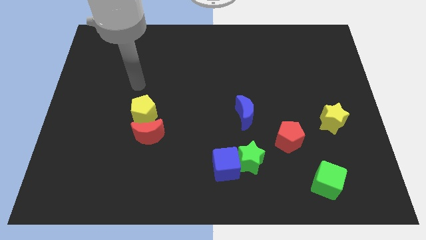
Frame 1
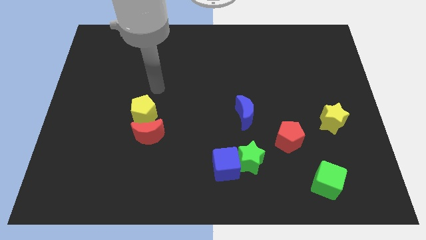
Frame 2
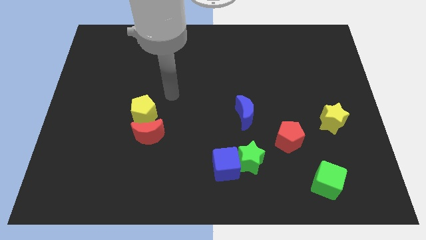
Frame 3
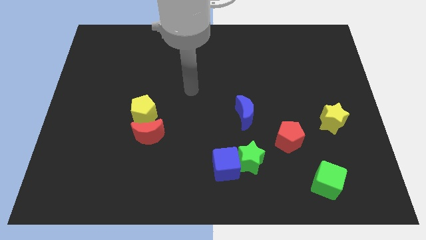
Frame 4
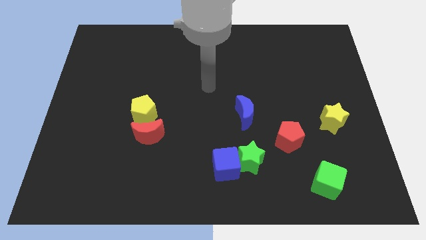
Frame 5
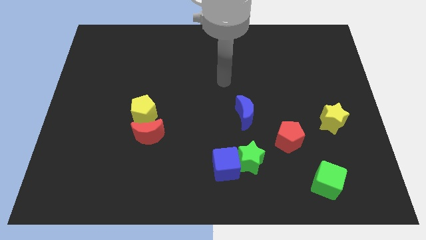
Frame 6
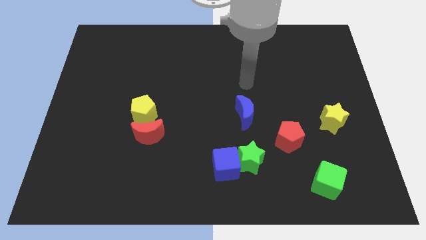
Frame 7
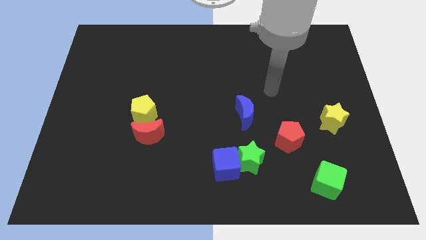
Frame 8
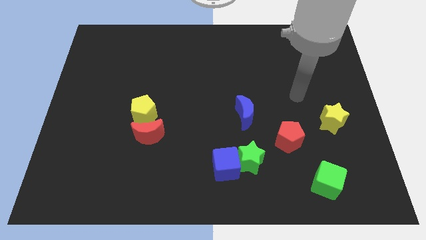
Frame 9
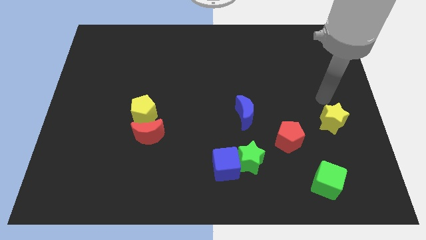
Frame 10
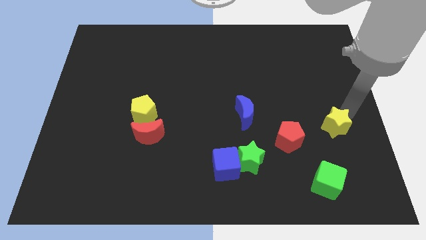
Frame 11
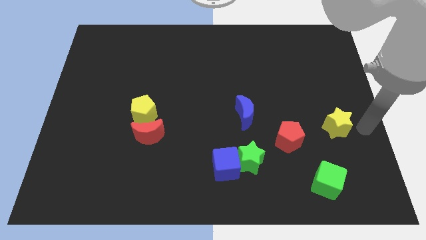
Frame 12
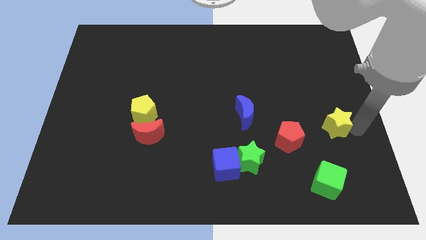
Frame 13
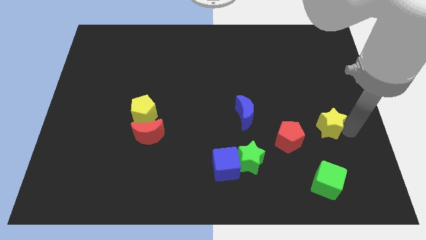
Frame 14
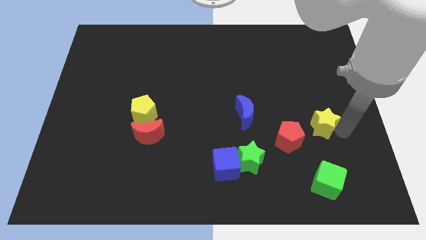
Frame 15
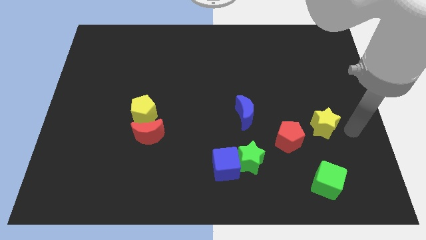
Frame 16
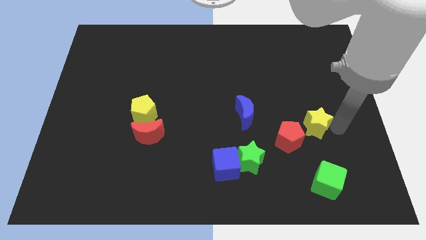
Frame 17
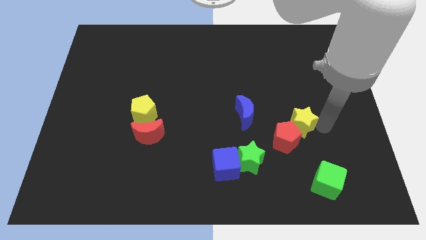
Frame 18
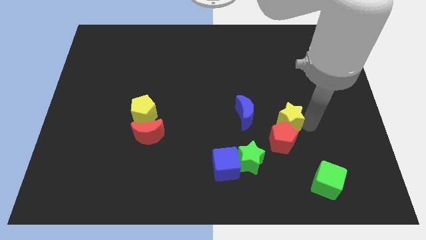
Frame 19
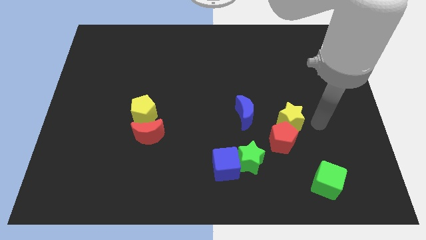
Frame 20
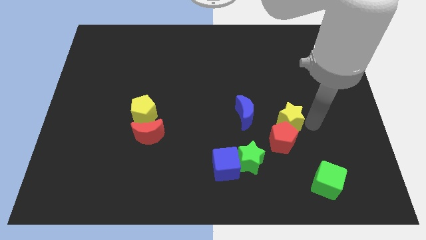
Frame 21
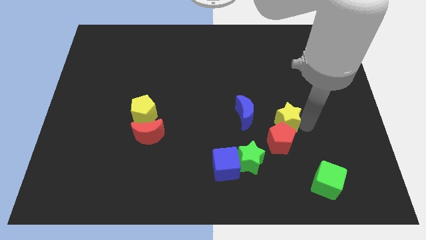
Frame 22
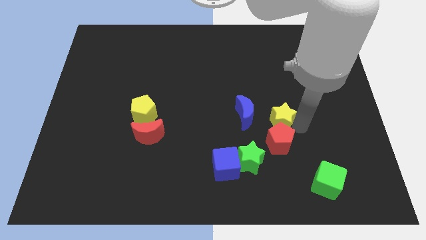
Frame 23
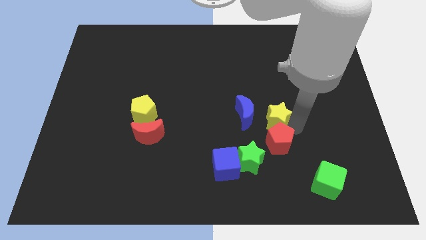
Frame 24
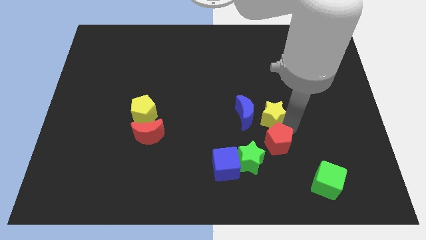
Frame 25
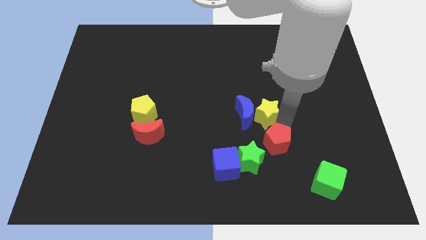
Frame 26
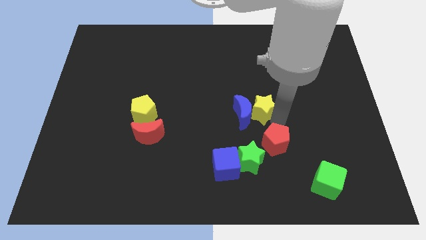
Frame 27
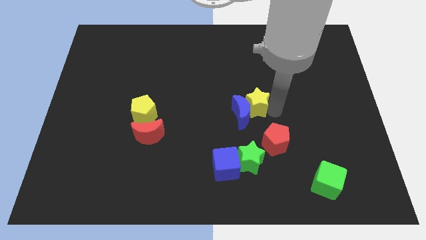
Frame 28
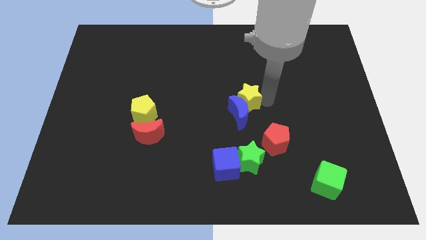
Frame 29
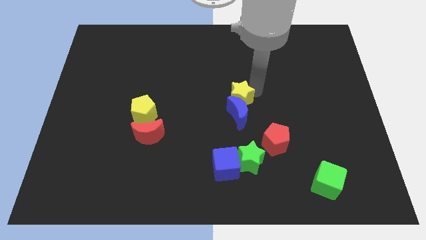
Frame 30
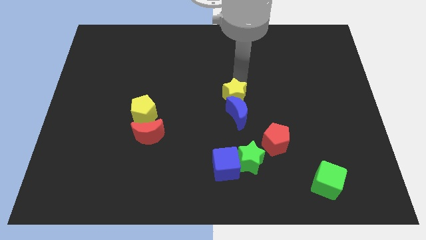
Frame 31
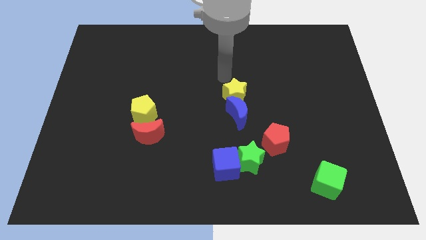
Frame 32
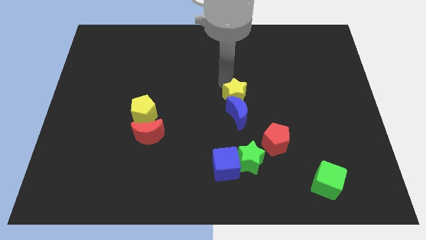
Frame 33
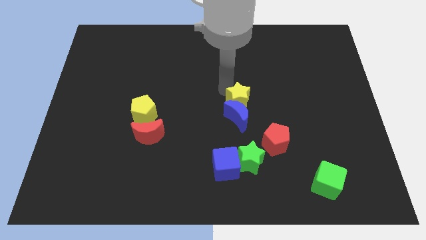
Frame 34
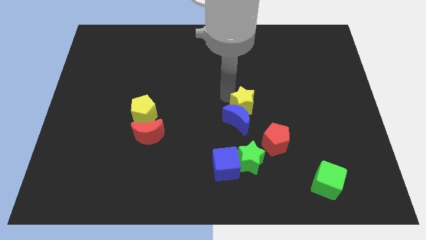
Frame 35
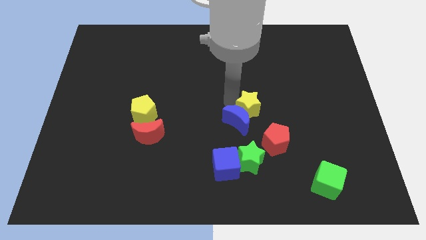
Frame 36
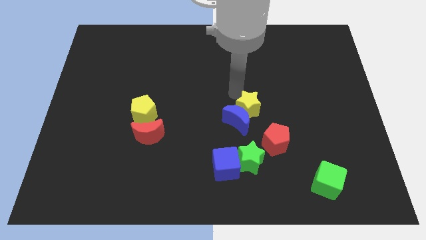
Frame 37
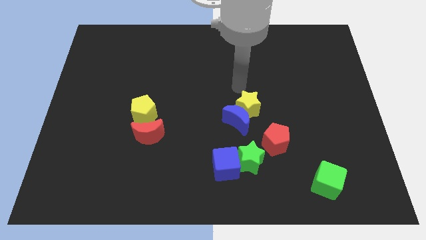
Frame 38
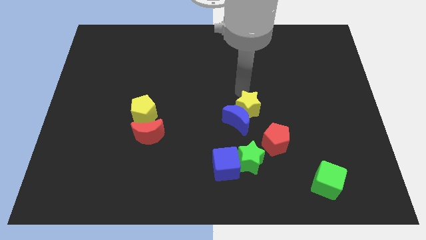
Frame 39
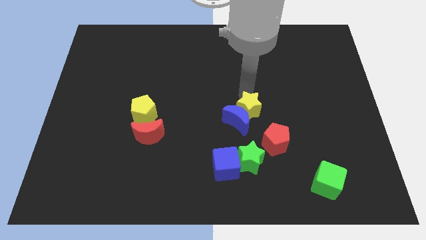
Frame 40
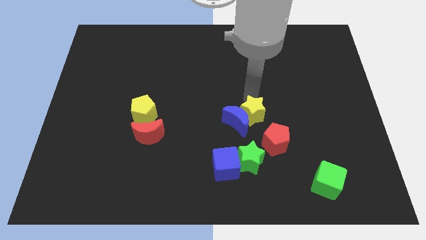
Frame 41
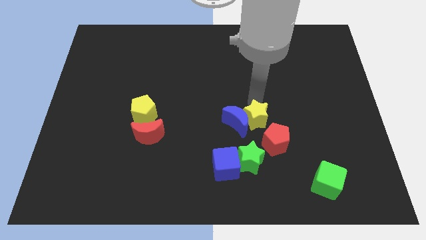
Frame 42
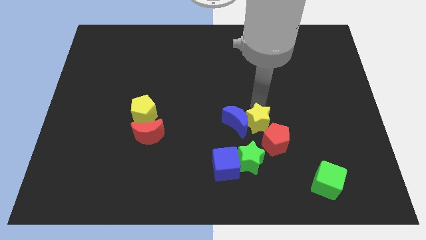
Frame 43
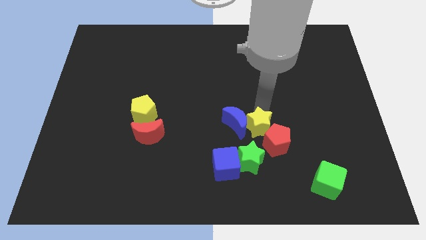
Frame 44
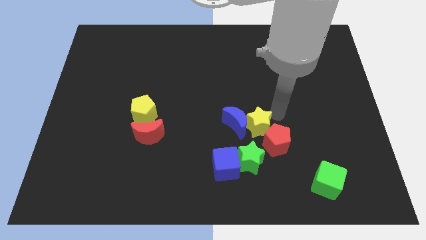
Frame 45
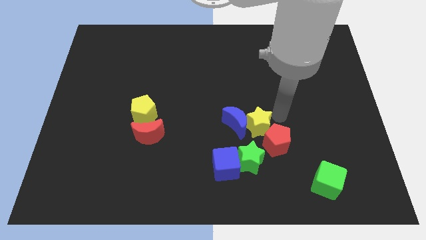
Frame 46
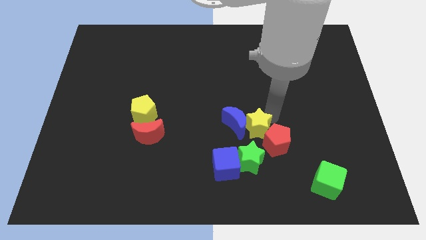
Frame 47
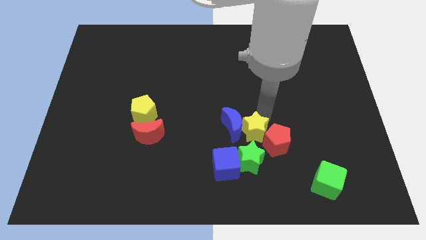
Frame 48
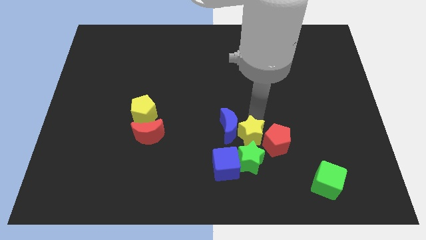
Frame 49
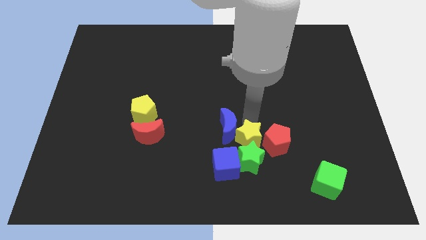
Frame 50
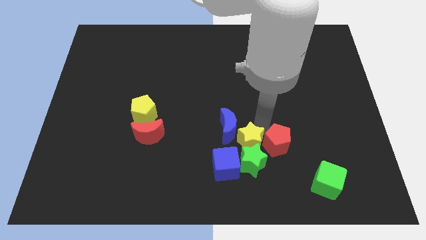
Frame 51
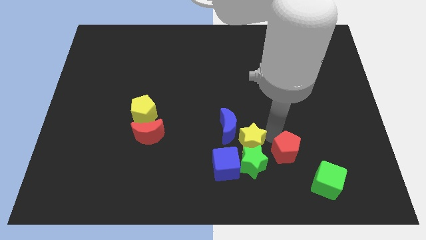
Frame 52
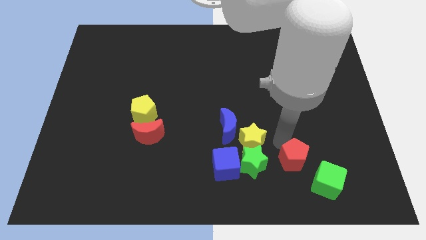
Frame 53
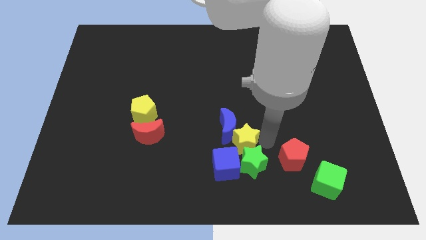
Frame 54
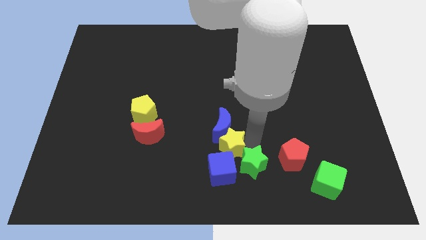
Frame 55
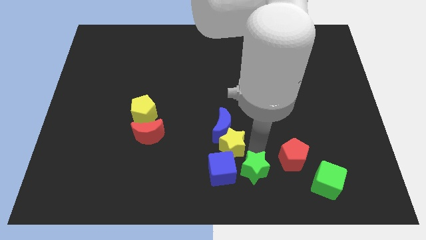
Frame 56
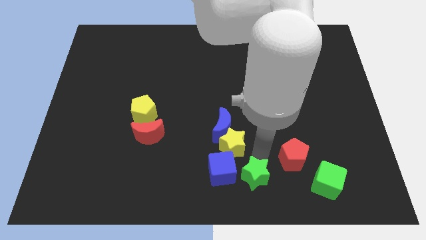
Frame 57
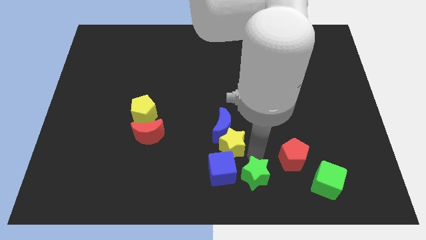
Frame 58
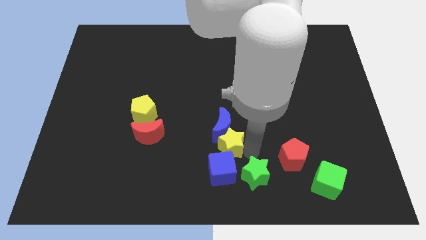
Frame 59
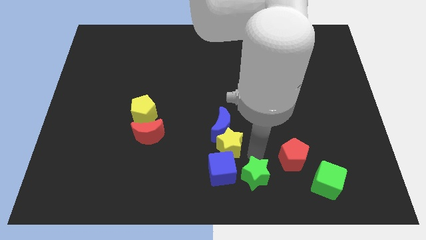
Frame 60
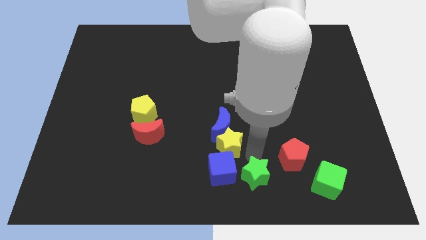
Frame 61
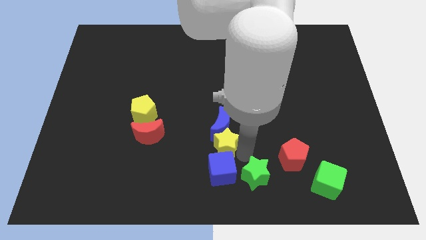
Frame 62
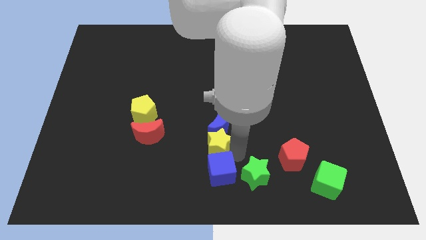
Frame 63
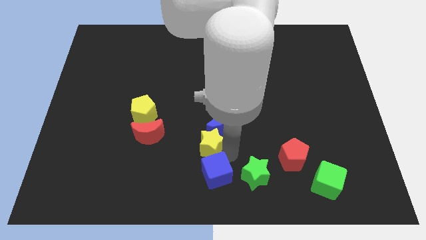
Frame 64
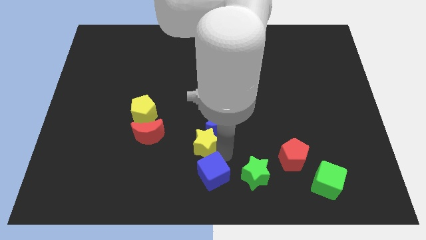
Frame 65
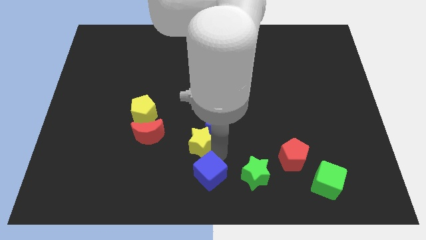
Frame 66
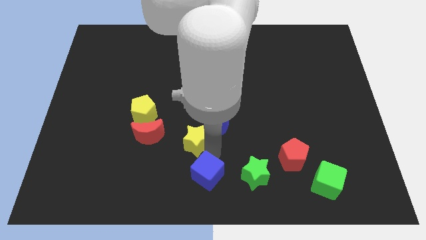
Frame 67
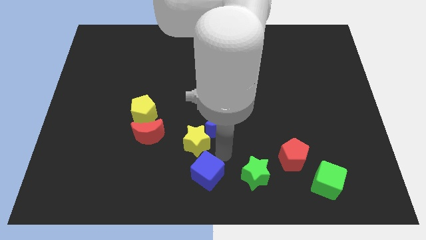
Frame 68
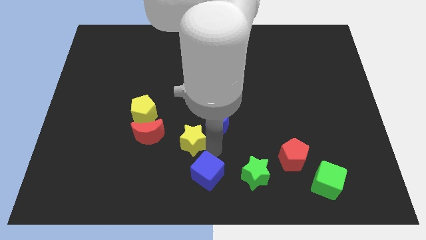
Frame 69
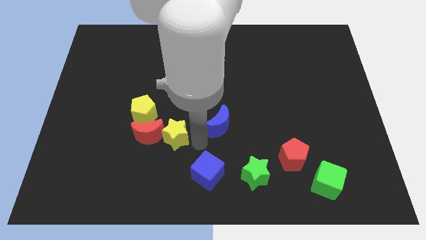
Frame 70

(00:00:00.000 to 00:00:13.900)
move the yellow star towards the red moon
